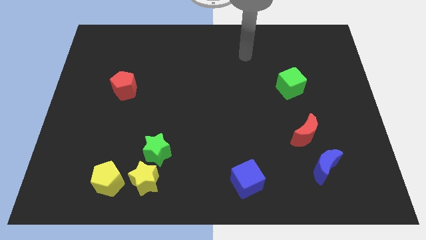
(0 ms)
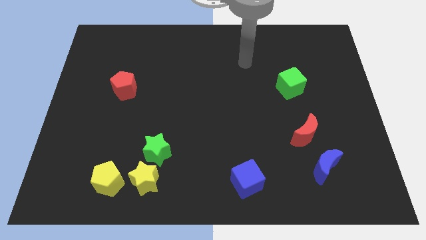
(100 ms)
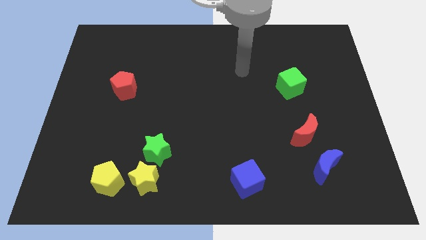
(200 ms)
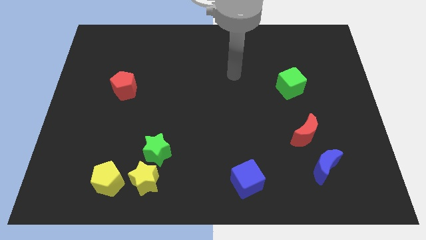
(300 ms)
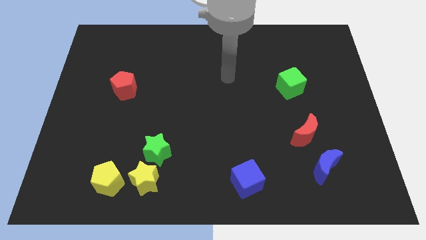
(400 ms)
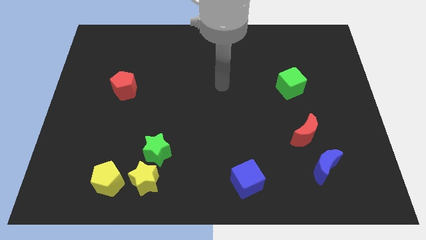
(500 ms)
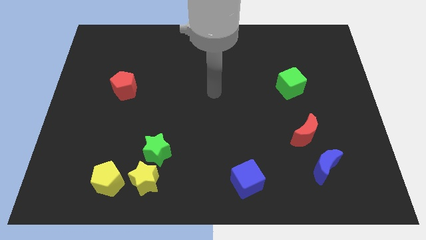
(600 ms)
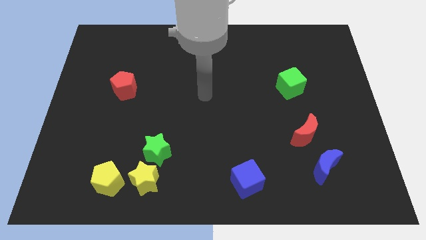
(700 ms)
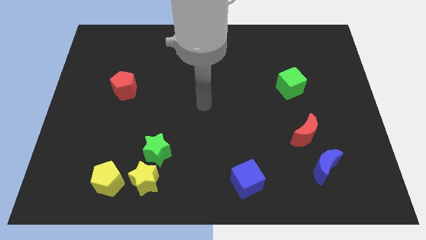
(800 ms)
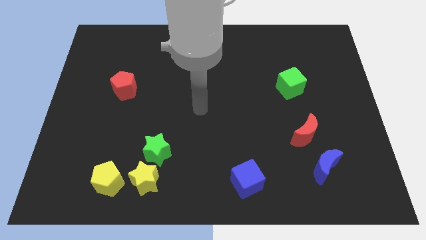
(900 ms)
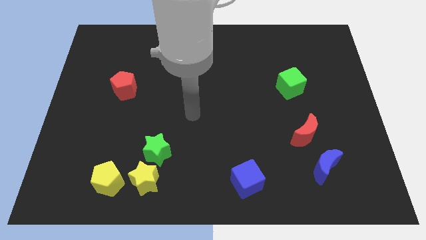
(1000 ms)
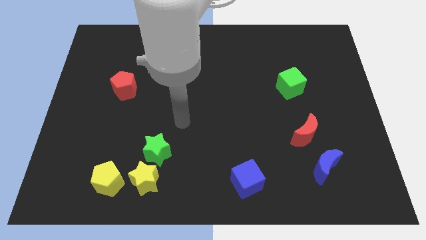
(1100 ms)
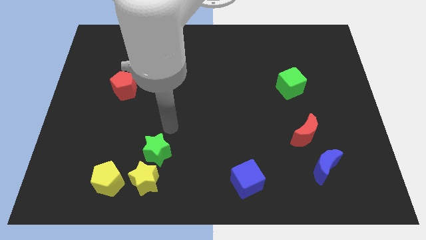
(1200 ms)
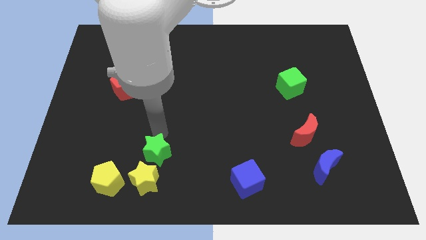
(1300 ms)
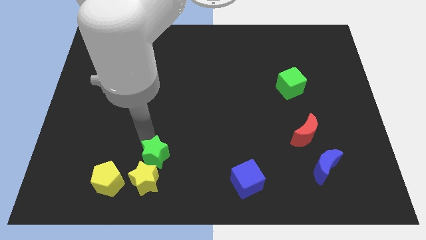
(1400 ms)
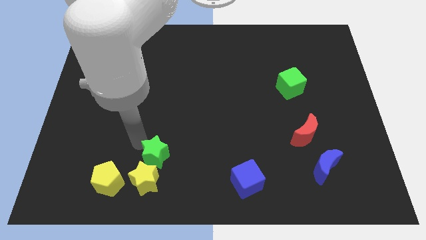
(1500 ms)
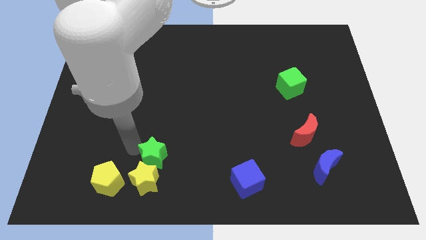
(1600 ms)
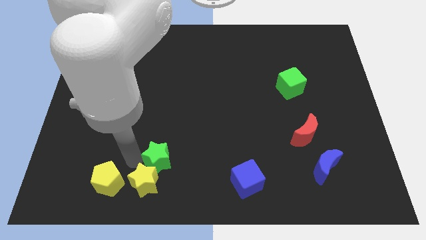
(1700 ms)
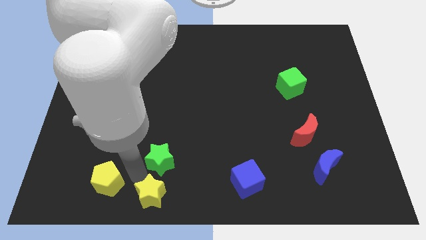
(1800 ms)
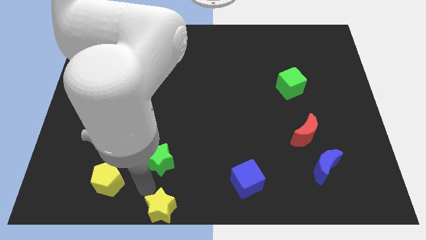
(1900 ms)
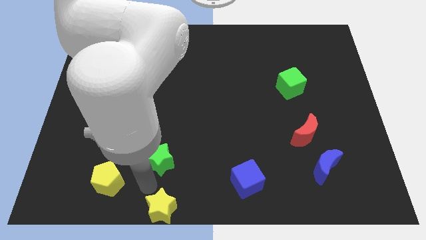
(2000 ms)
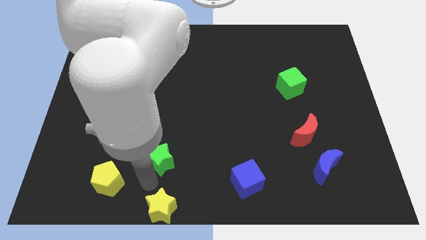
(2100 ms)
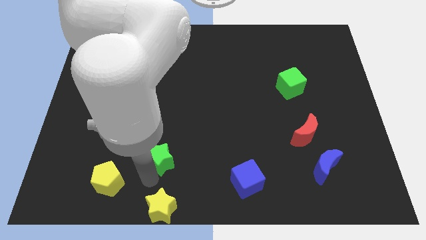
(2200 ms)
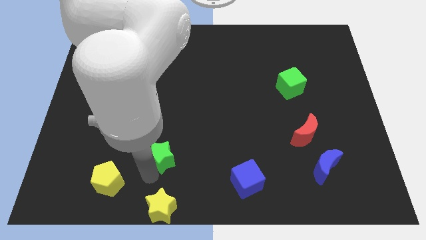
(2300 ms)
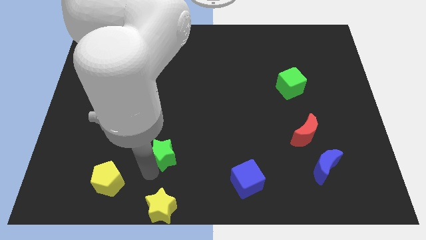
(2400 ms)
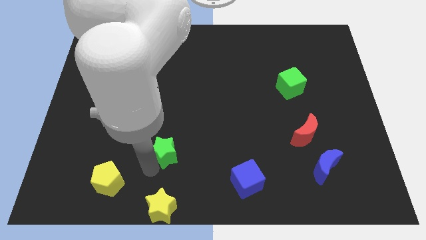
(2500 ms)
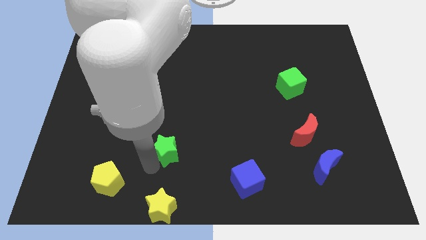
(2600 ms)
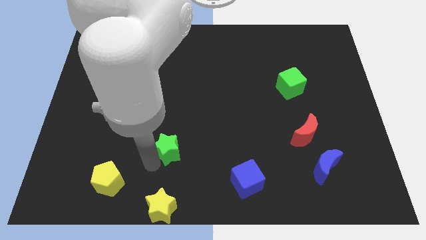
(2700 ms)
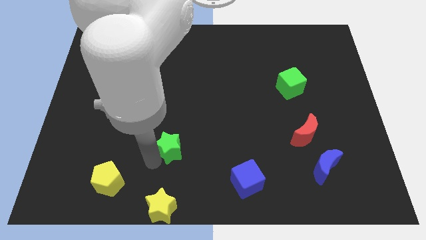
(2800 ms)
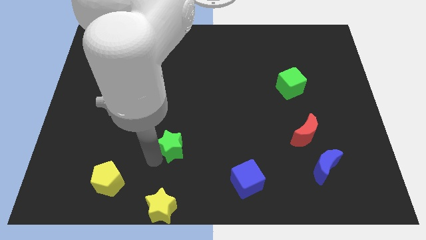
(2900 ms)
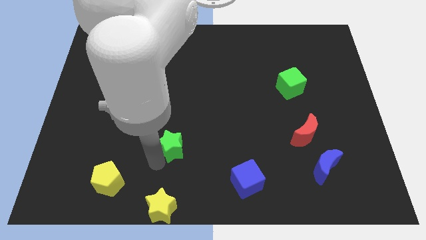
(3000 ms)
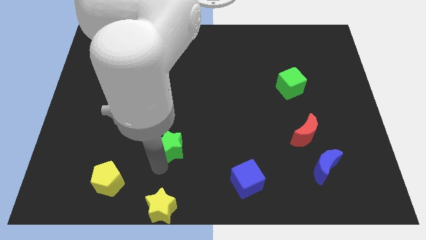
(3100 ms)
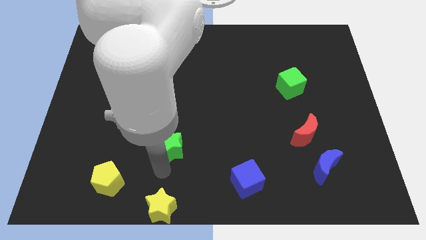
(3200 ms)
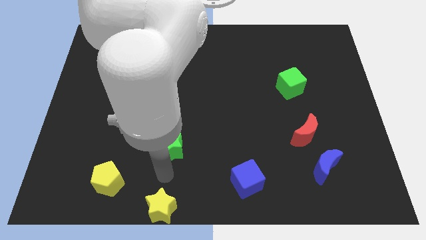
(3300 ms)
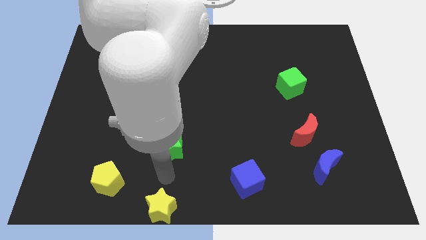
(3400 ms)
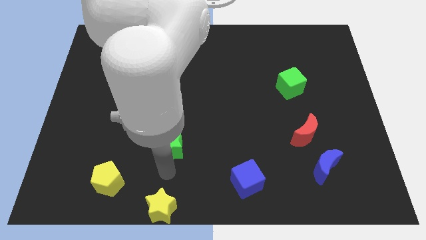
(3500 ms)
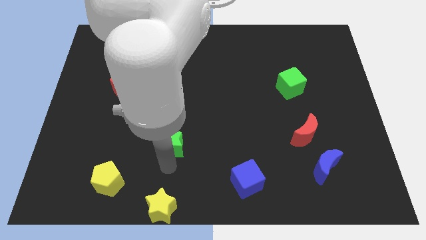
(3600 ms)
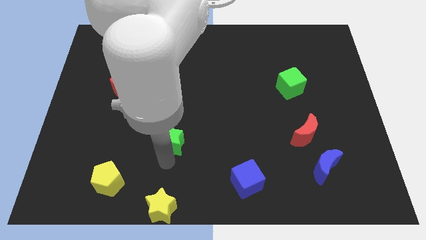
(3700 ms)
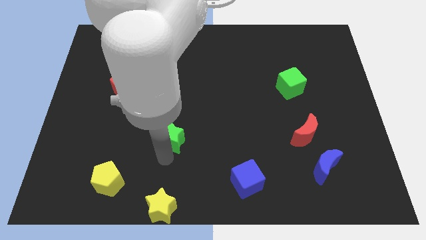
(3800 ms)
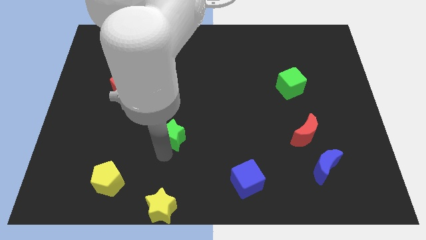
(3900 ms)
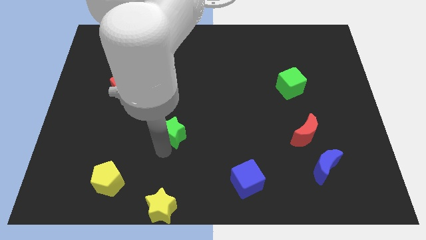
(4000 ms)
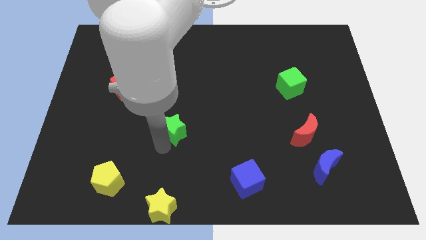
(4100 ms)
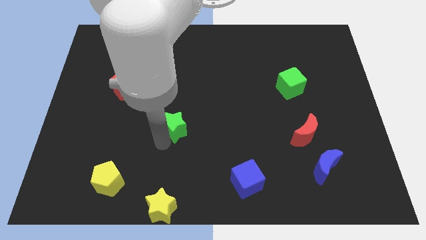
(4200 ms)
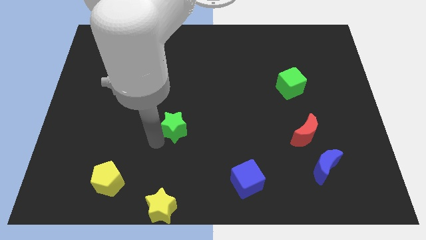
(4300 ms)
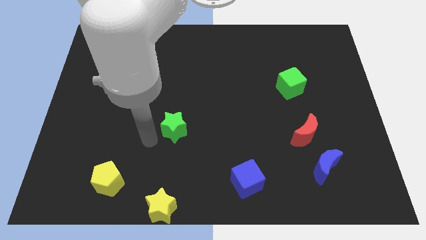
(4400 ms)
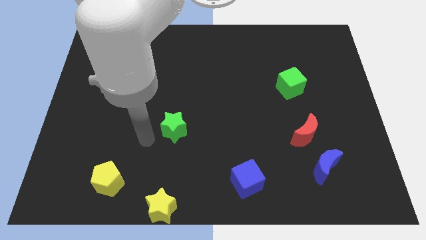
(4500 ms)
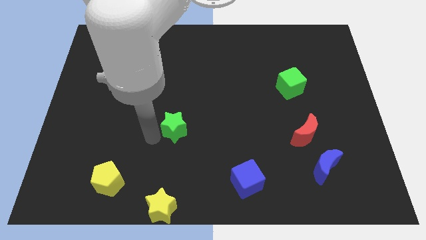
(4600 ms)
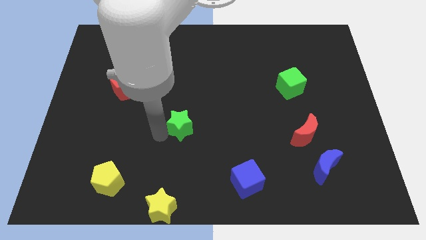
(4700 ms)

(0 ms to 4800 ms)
move the green star a little bit upwards and right diagonally

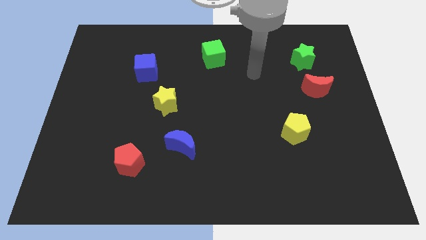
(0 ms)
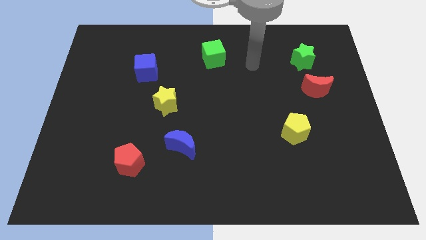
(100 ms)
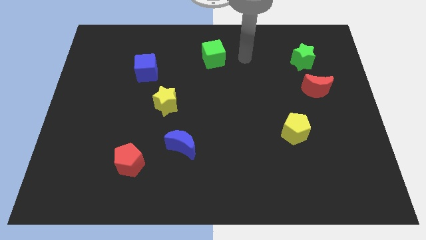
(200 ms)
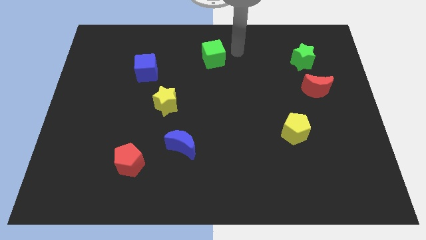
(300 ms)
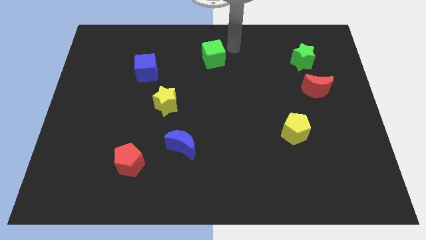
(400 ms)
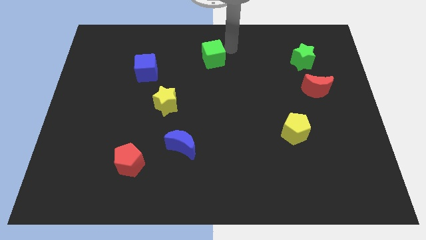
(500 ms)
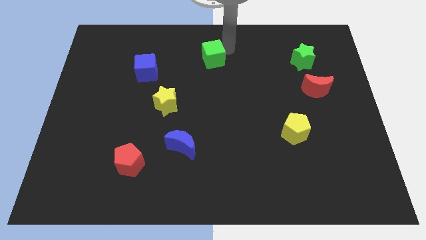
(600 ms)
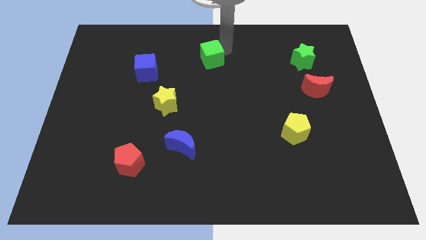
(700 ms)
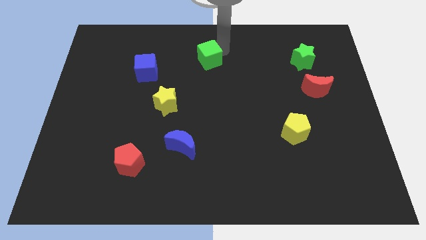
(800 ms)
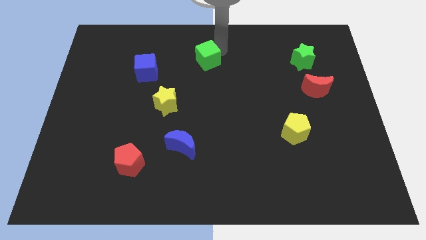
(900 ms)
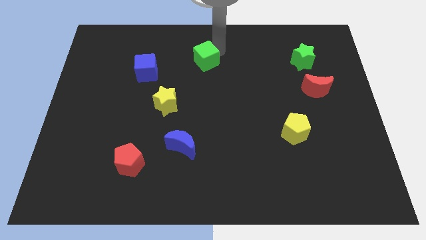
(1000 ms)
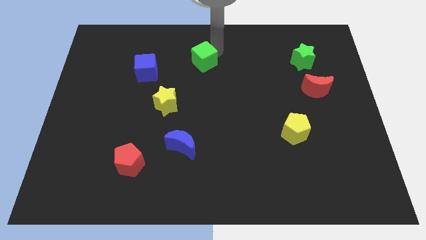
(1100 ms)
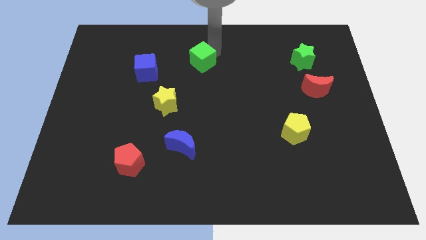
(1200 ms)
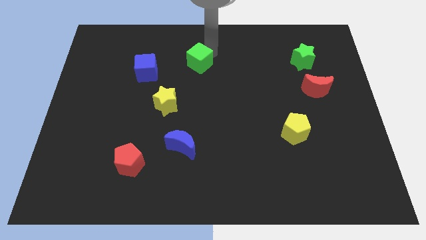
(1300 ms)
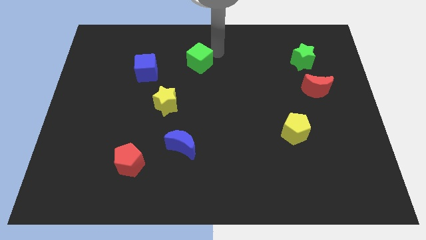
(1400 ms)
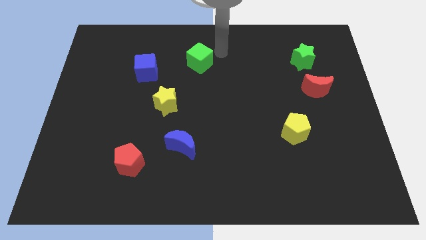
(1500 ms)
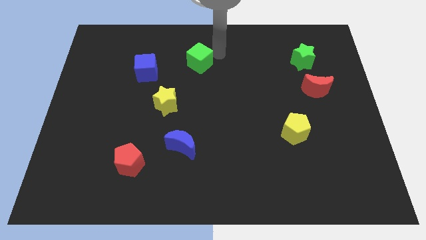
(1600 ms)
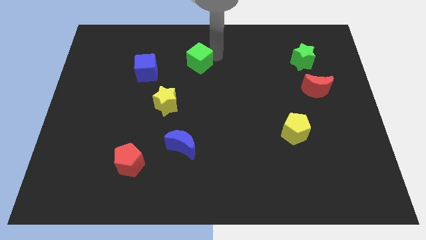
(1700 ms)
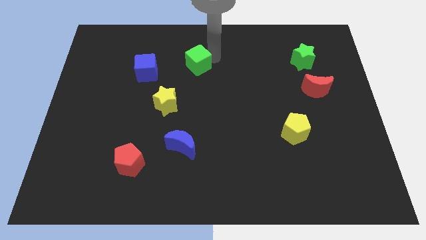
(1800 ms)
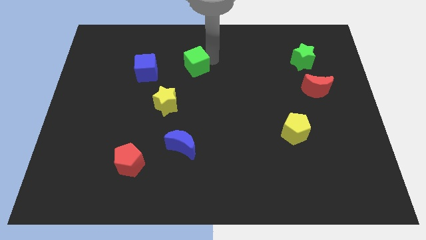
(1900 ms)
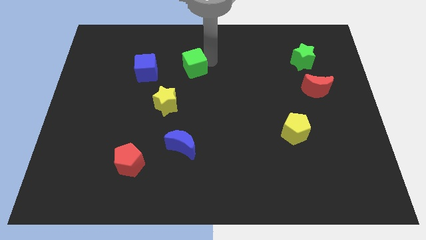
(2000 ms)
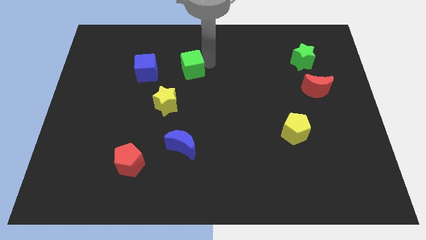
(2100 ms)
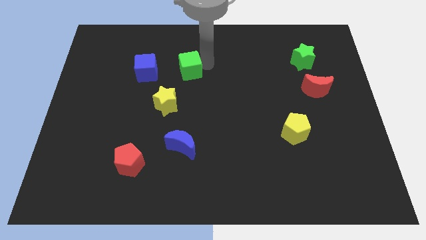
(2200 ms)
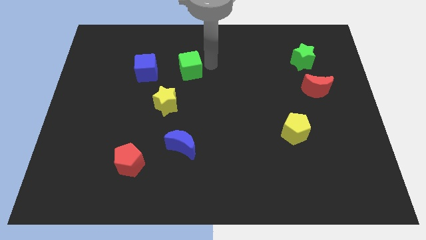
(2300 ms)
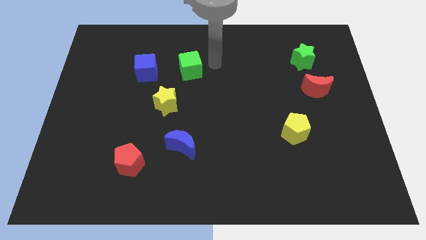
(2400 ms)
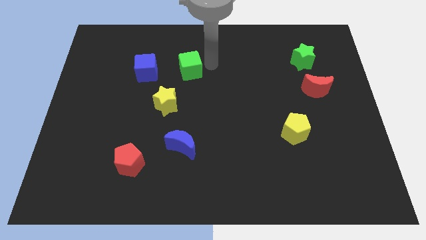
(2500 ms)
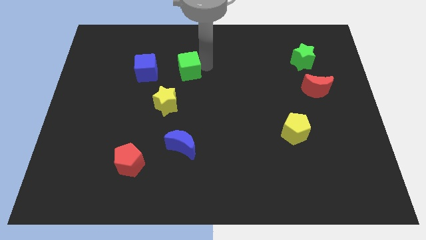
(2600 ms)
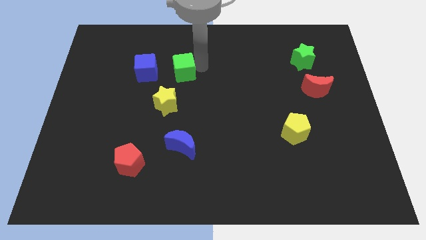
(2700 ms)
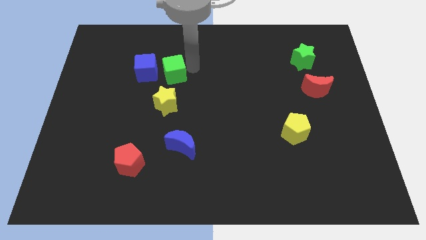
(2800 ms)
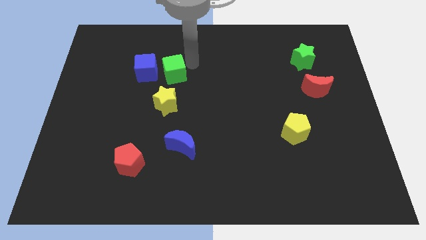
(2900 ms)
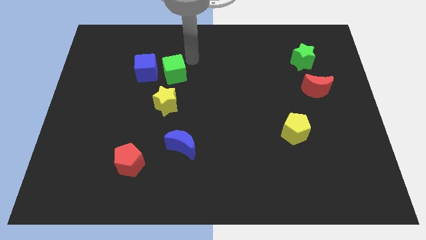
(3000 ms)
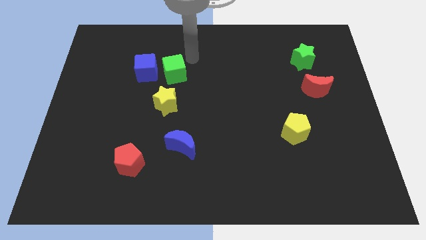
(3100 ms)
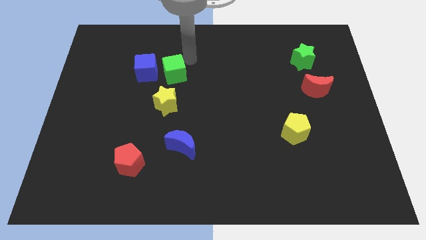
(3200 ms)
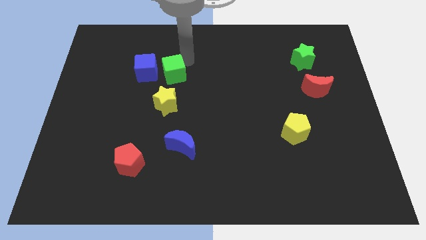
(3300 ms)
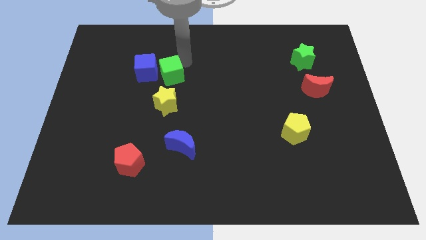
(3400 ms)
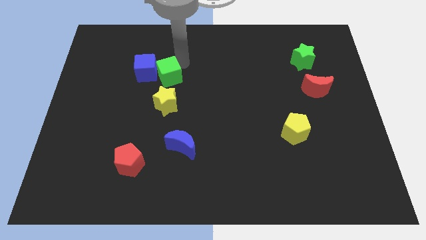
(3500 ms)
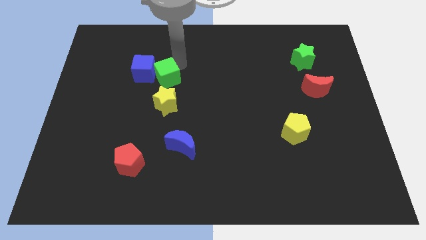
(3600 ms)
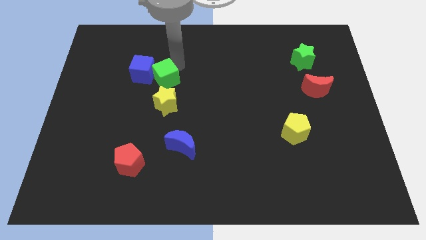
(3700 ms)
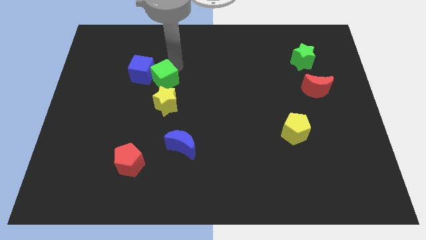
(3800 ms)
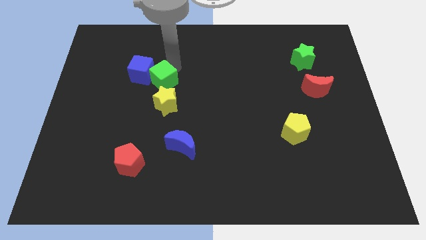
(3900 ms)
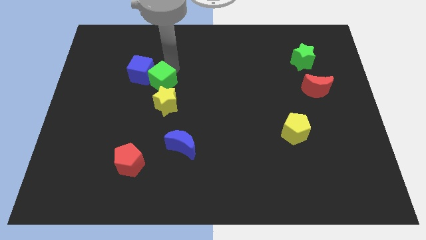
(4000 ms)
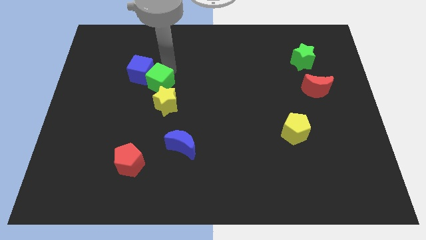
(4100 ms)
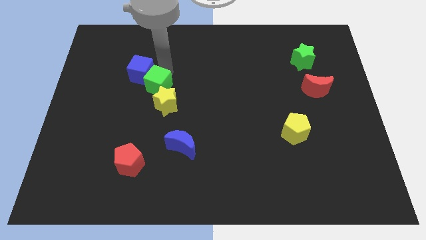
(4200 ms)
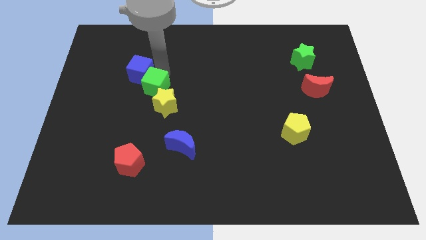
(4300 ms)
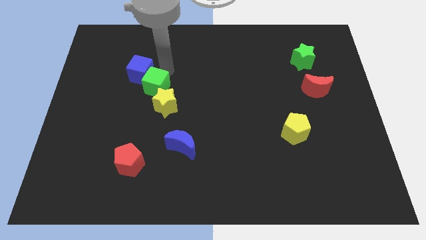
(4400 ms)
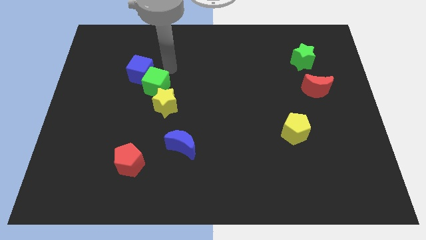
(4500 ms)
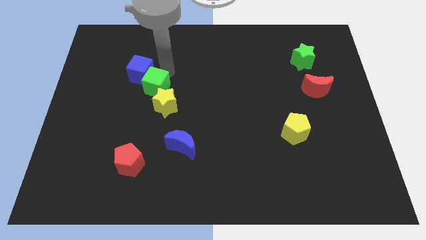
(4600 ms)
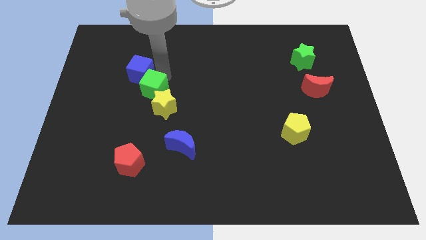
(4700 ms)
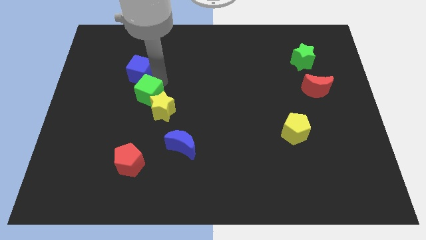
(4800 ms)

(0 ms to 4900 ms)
push the green cube down and left diagonally
